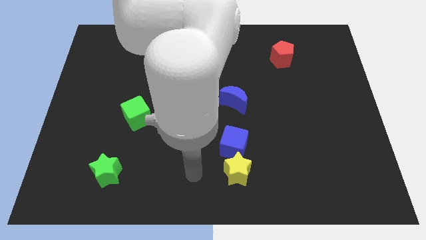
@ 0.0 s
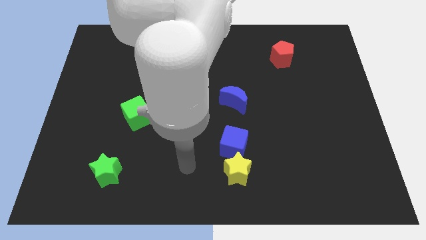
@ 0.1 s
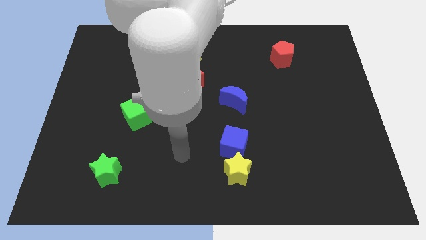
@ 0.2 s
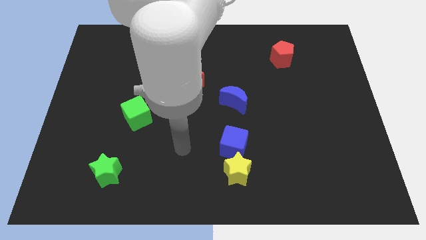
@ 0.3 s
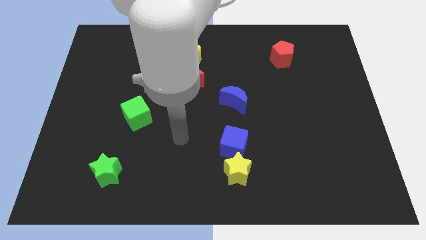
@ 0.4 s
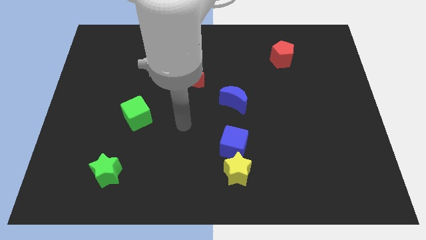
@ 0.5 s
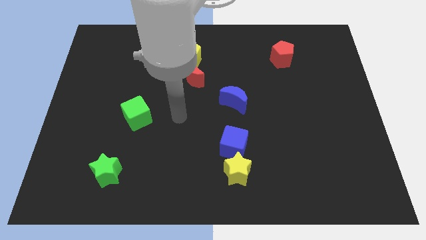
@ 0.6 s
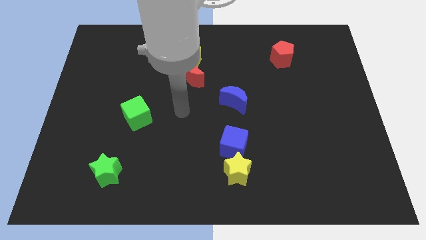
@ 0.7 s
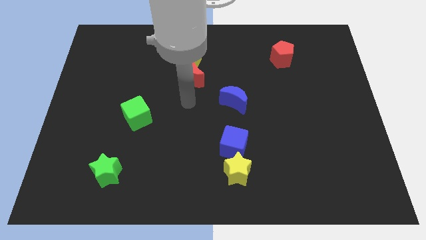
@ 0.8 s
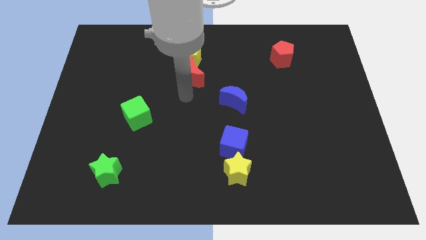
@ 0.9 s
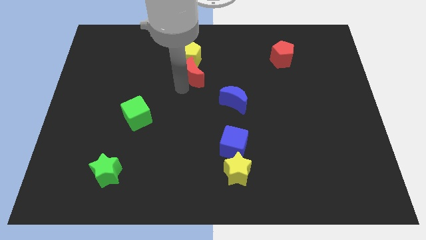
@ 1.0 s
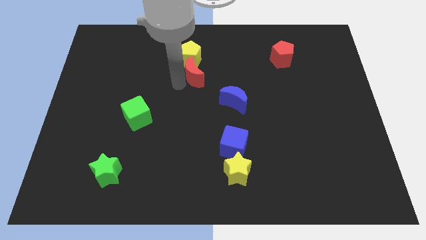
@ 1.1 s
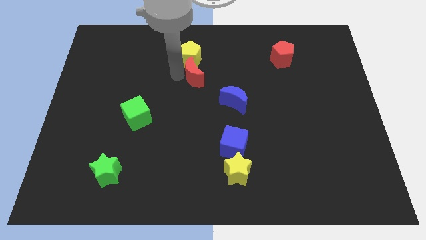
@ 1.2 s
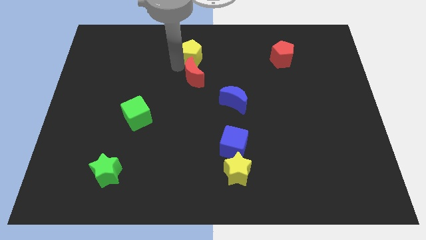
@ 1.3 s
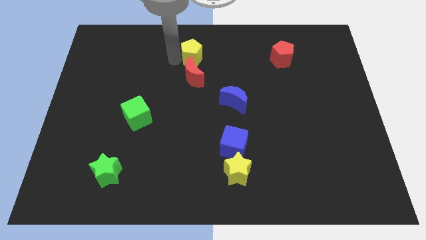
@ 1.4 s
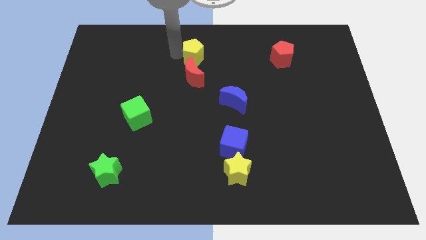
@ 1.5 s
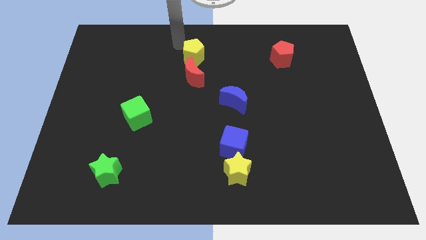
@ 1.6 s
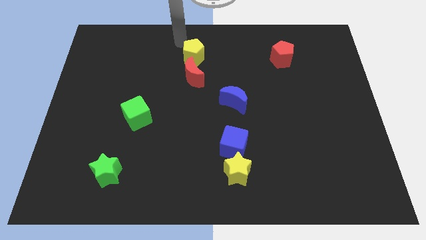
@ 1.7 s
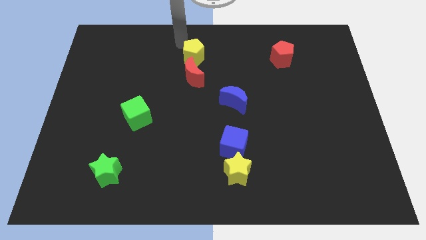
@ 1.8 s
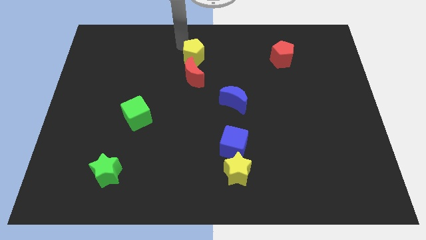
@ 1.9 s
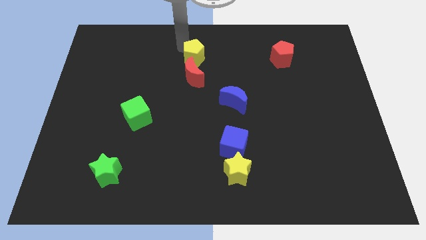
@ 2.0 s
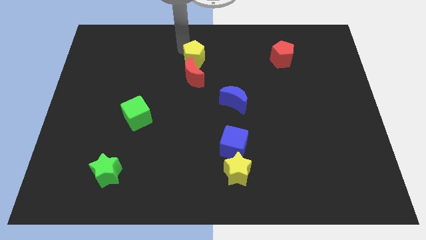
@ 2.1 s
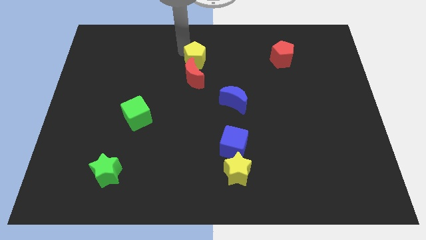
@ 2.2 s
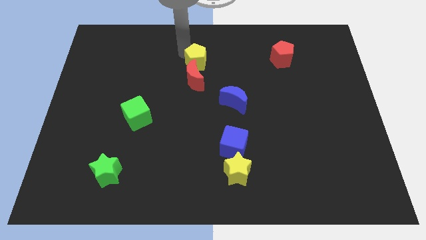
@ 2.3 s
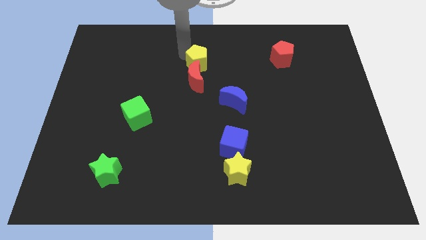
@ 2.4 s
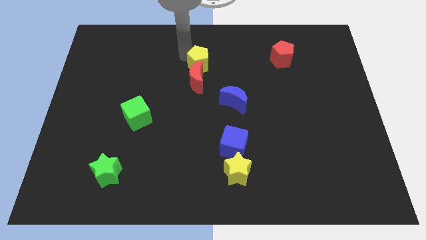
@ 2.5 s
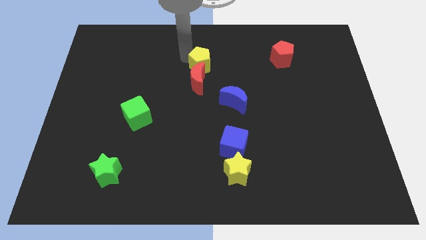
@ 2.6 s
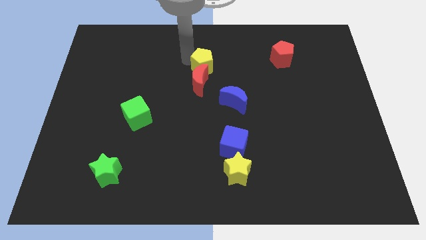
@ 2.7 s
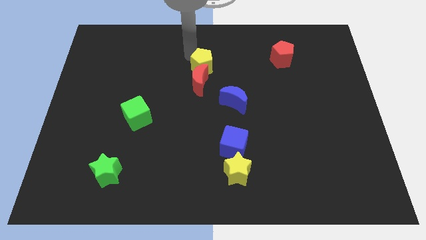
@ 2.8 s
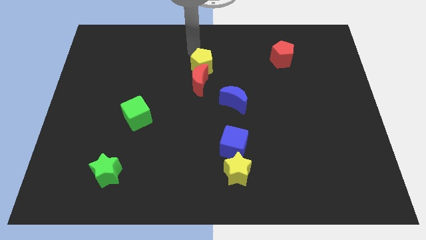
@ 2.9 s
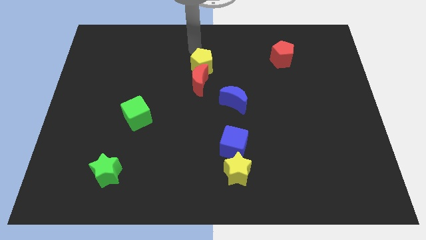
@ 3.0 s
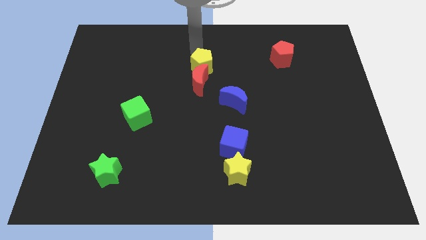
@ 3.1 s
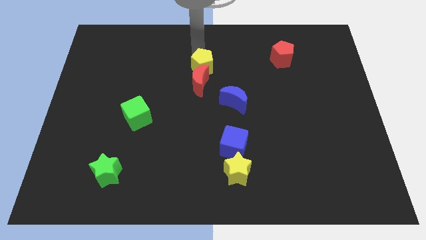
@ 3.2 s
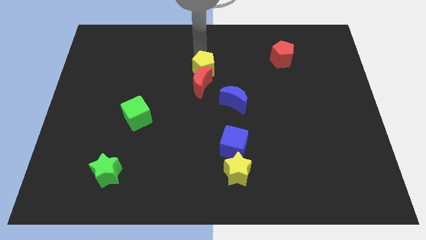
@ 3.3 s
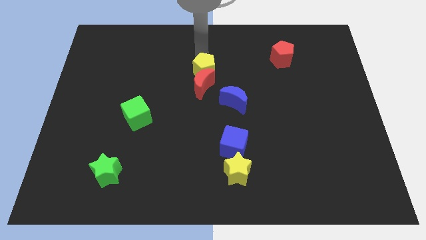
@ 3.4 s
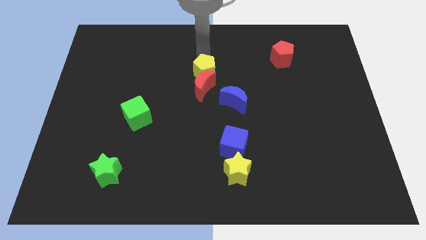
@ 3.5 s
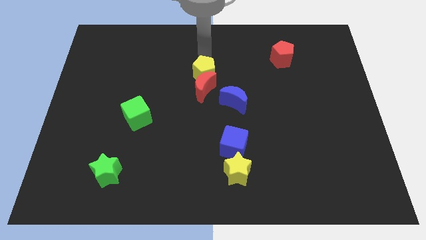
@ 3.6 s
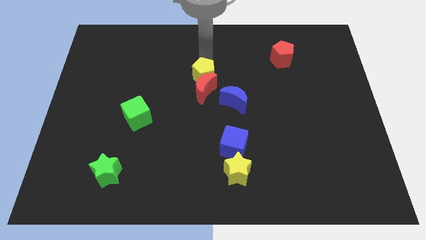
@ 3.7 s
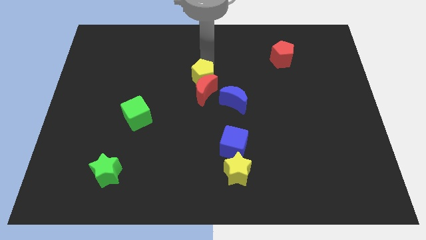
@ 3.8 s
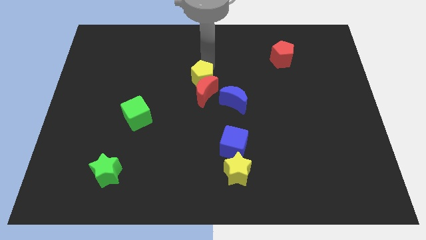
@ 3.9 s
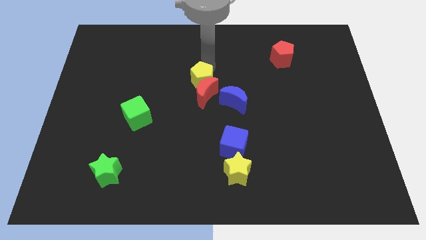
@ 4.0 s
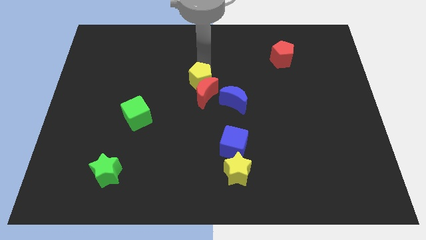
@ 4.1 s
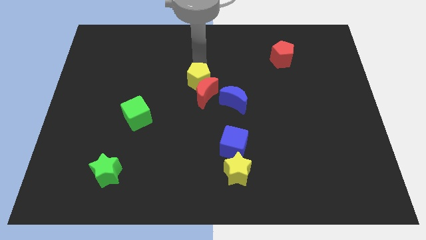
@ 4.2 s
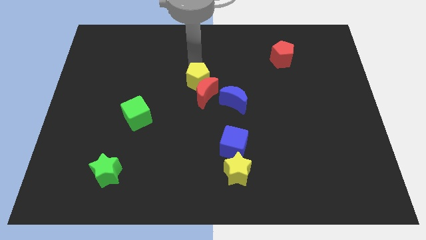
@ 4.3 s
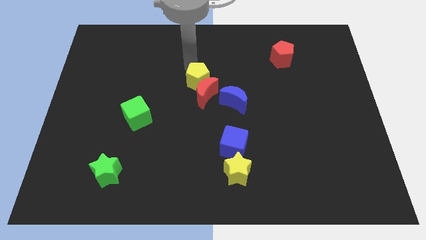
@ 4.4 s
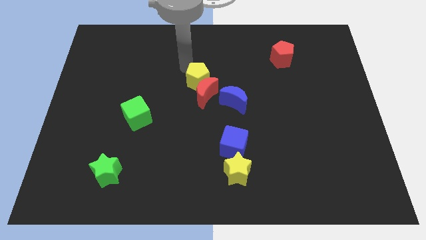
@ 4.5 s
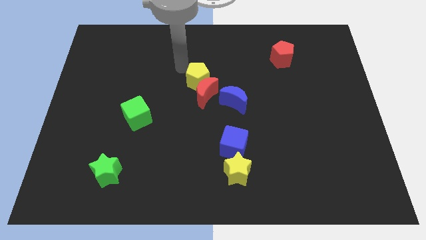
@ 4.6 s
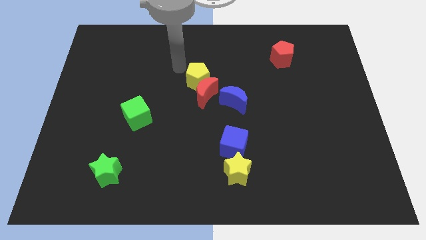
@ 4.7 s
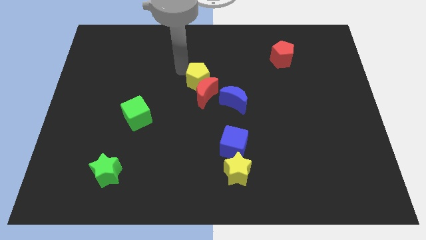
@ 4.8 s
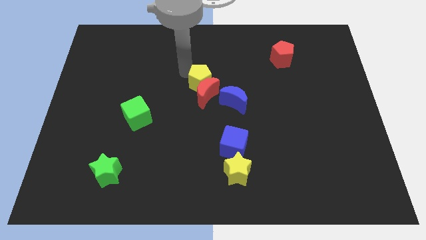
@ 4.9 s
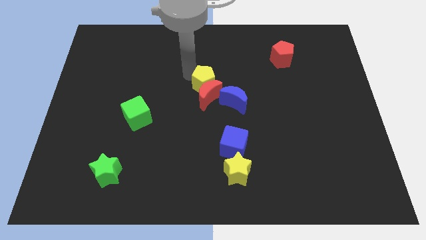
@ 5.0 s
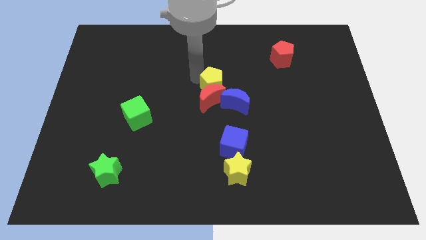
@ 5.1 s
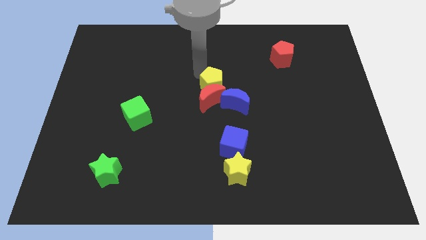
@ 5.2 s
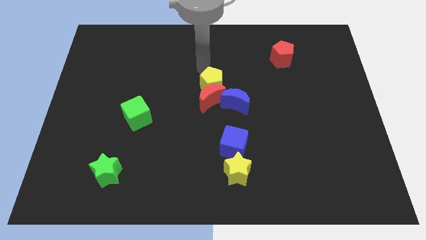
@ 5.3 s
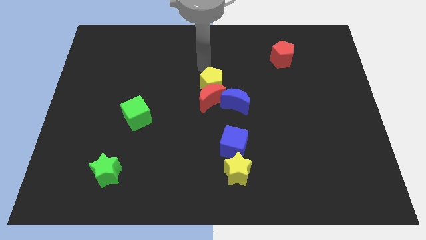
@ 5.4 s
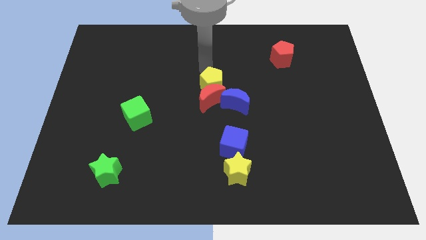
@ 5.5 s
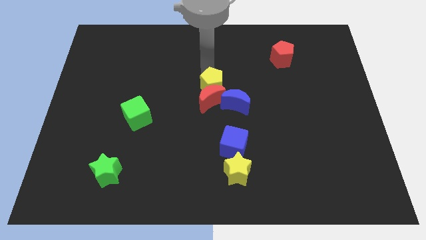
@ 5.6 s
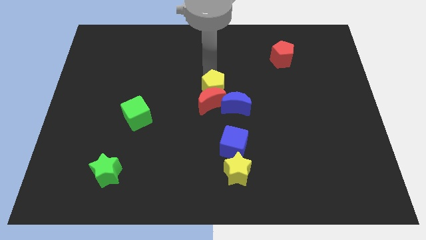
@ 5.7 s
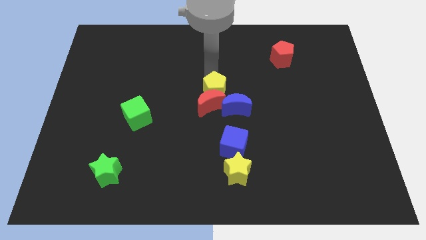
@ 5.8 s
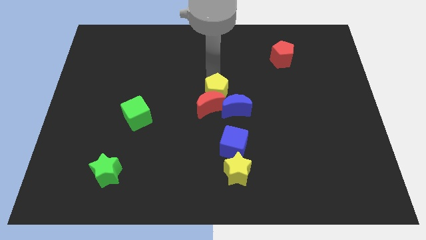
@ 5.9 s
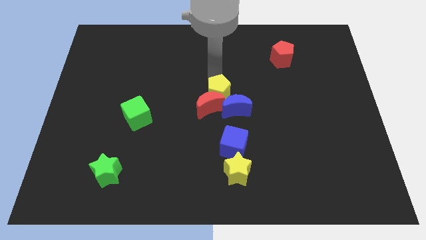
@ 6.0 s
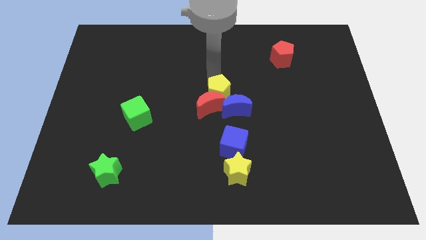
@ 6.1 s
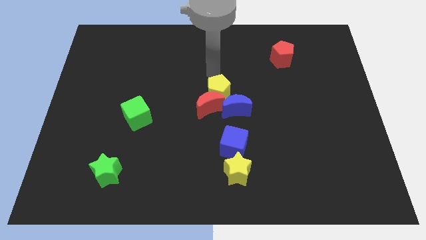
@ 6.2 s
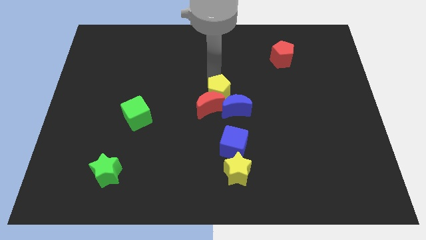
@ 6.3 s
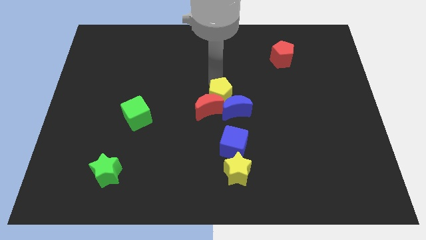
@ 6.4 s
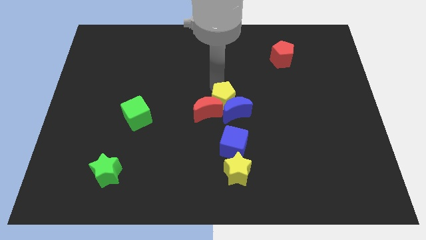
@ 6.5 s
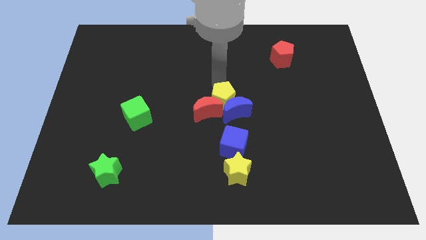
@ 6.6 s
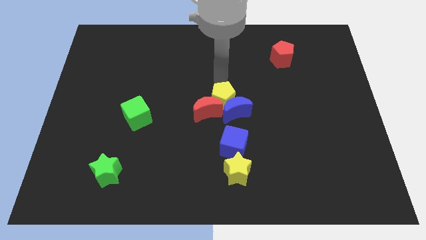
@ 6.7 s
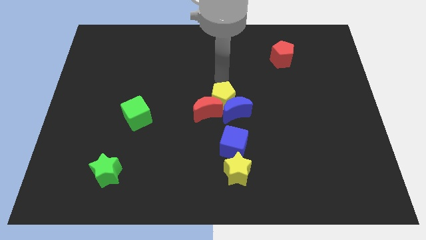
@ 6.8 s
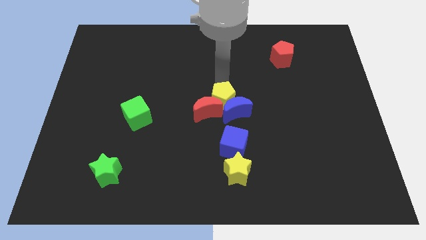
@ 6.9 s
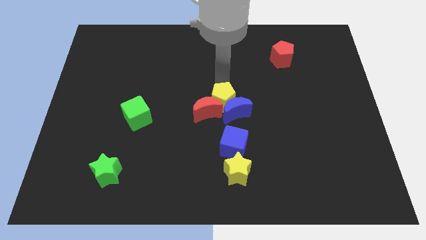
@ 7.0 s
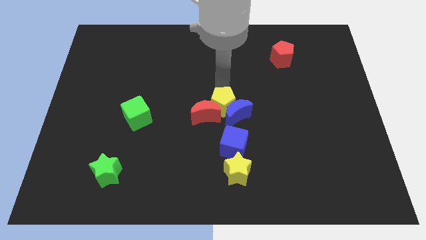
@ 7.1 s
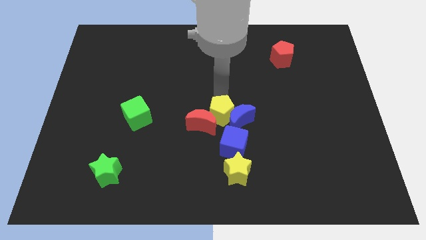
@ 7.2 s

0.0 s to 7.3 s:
slide the yellow pentagon to the top side of the yellow star
